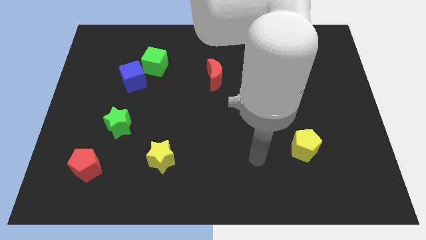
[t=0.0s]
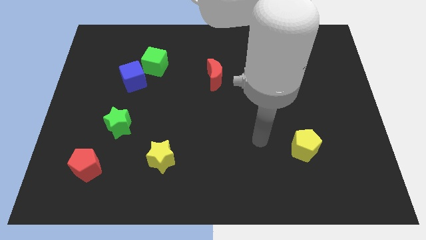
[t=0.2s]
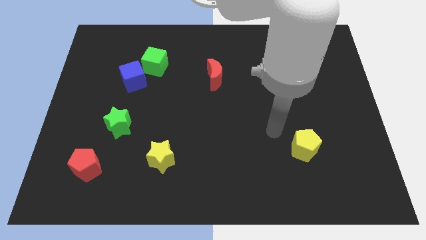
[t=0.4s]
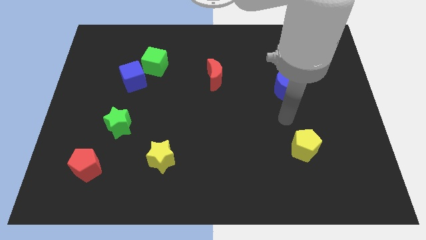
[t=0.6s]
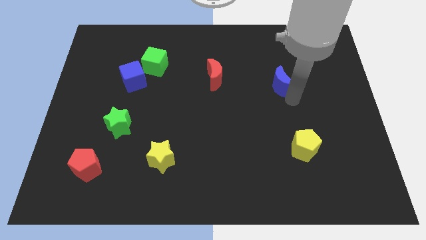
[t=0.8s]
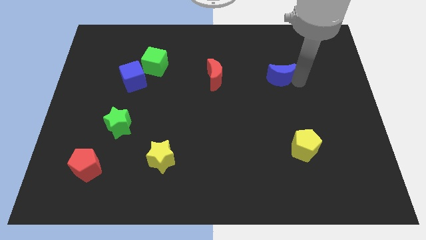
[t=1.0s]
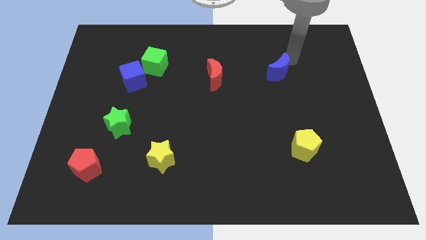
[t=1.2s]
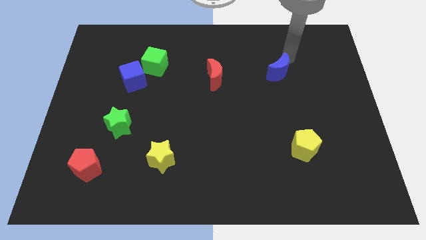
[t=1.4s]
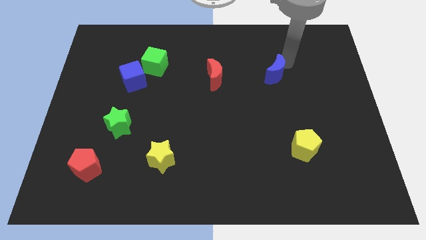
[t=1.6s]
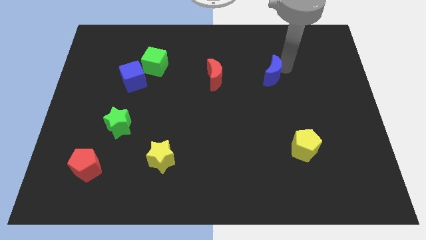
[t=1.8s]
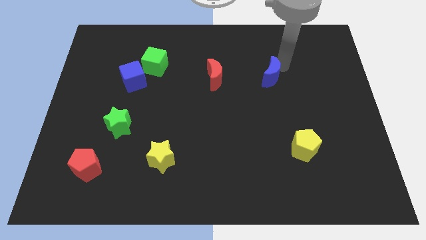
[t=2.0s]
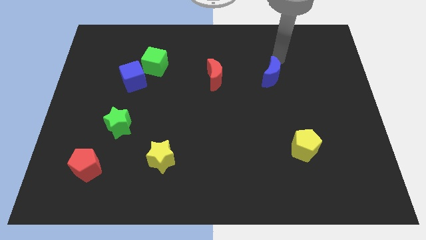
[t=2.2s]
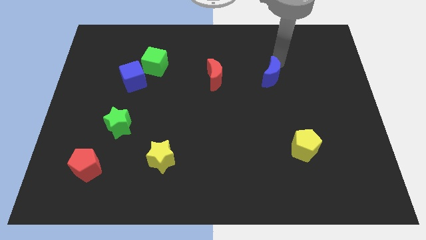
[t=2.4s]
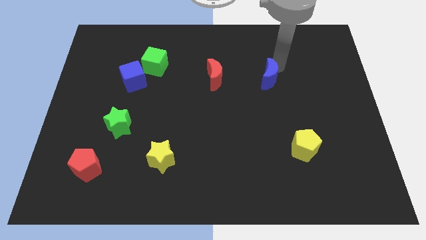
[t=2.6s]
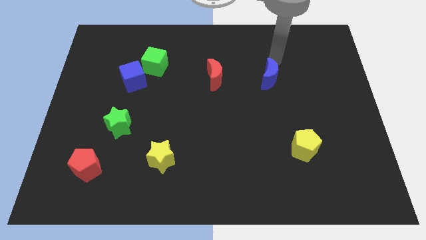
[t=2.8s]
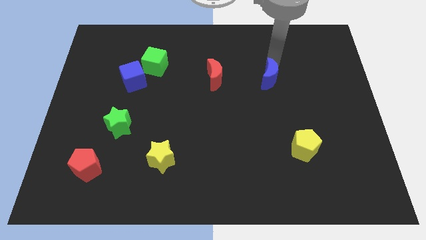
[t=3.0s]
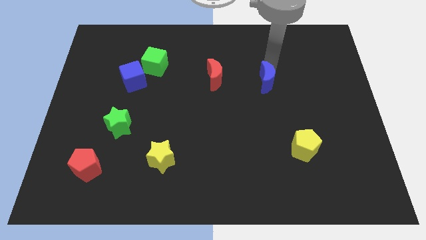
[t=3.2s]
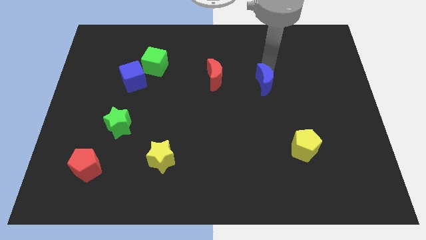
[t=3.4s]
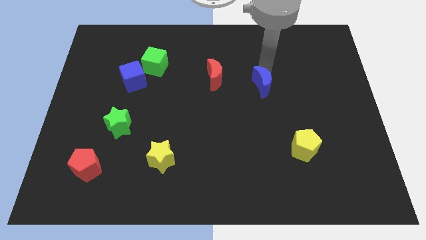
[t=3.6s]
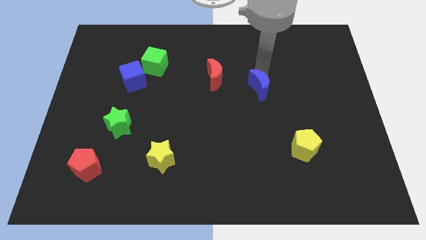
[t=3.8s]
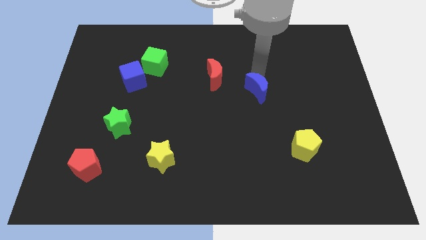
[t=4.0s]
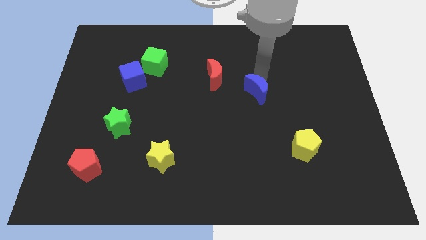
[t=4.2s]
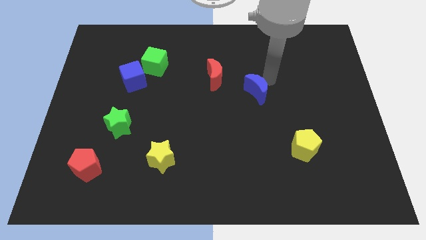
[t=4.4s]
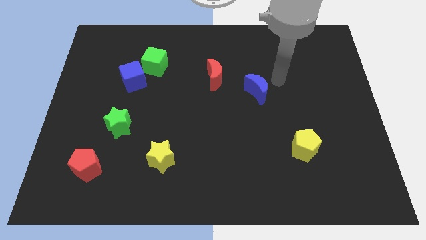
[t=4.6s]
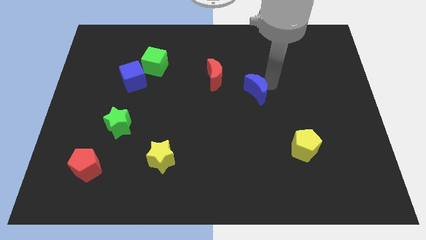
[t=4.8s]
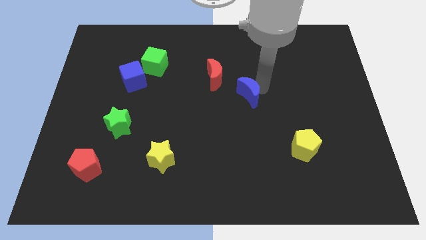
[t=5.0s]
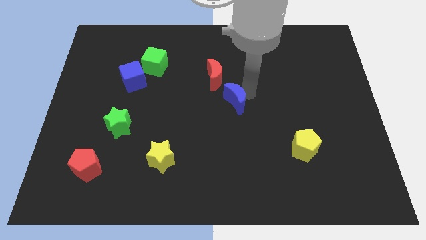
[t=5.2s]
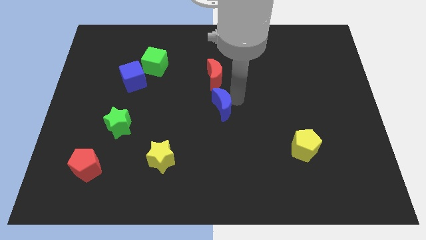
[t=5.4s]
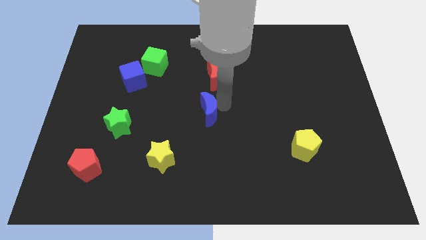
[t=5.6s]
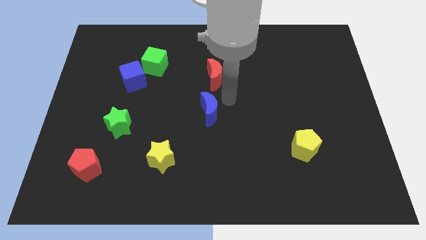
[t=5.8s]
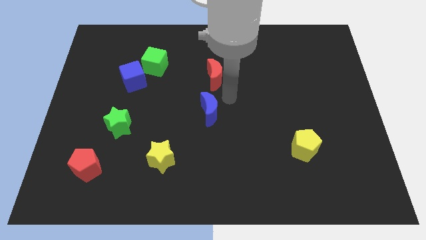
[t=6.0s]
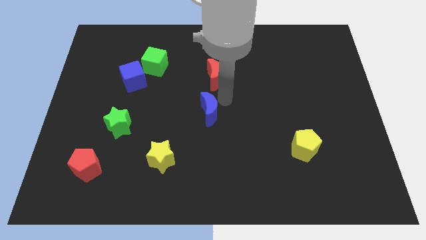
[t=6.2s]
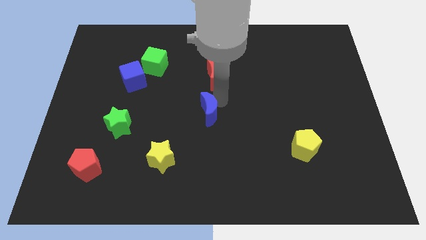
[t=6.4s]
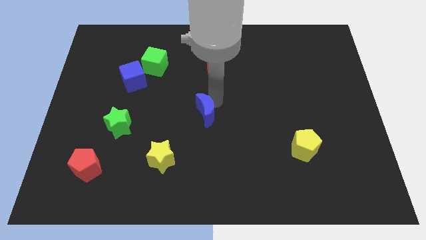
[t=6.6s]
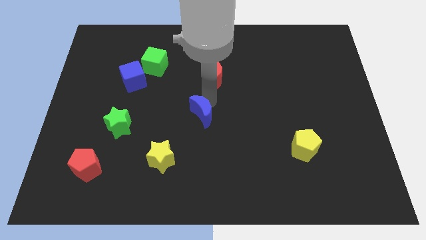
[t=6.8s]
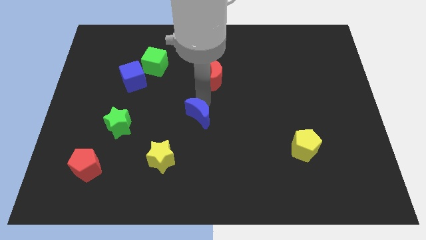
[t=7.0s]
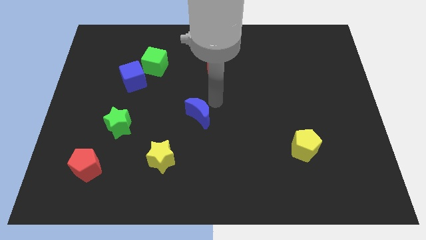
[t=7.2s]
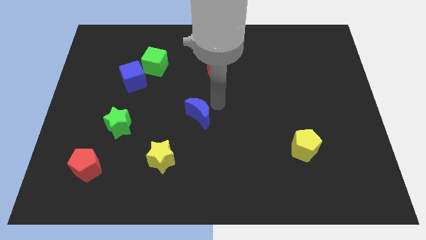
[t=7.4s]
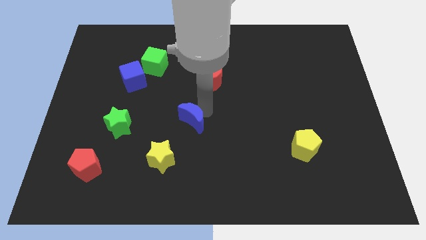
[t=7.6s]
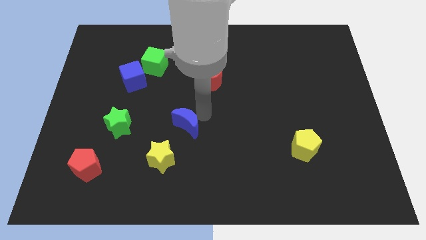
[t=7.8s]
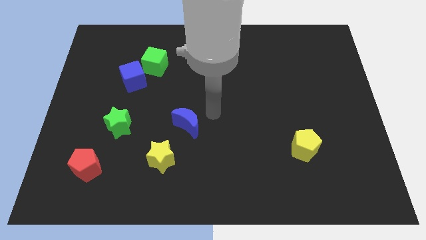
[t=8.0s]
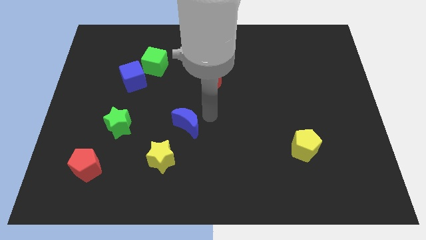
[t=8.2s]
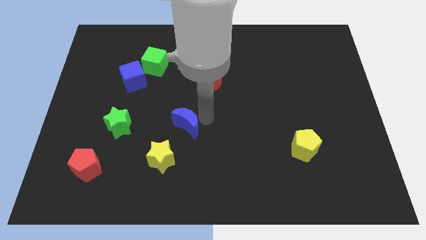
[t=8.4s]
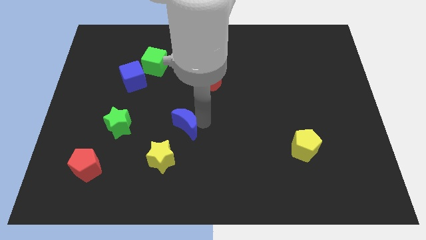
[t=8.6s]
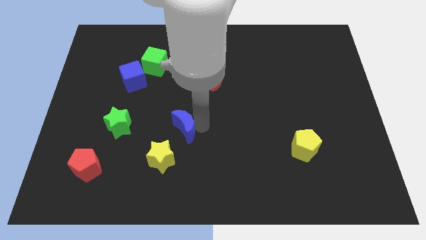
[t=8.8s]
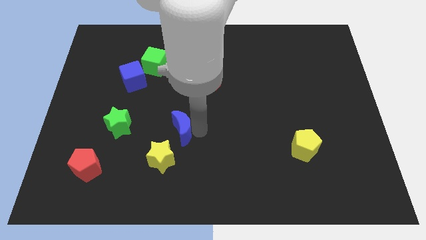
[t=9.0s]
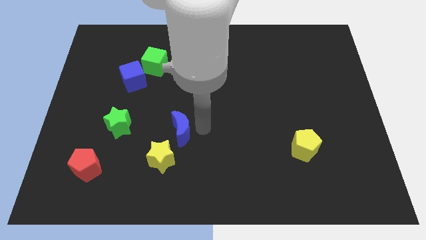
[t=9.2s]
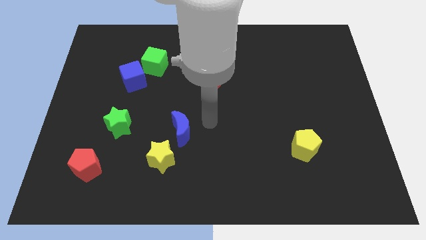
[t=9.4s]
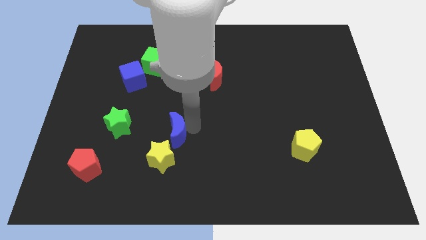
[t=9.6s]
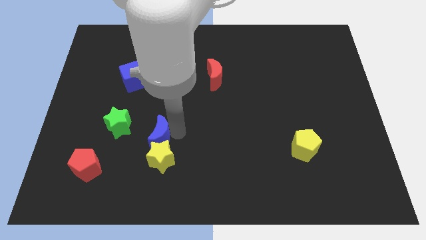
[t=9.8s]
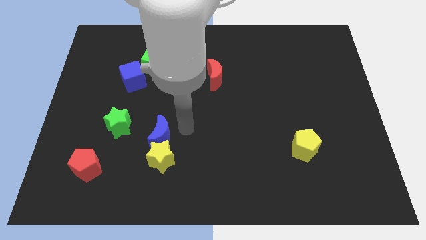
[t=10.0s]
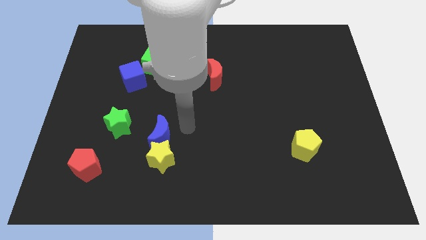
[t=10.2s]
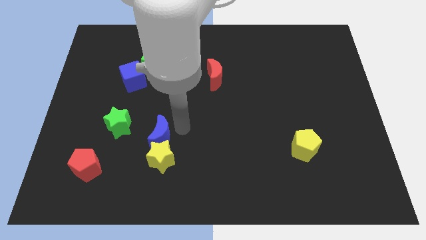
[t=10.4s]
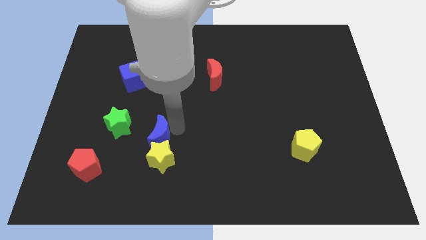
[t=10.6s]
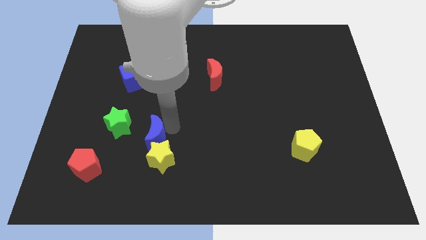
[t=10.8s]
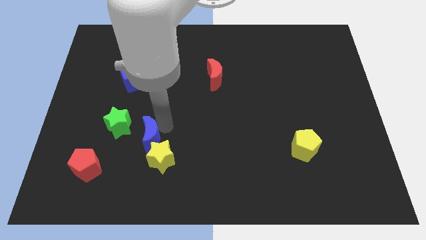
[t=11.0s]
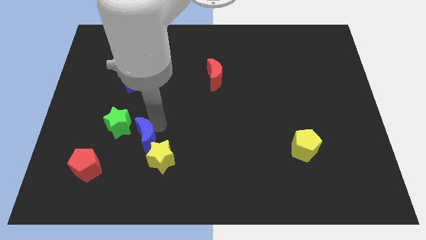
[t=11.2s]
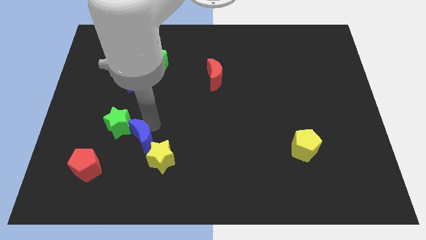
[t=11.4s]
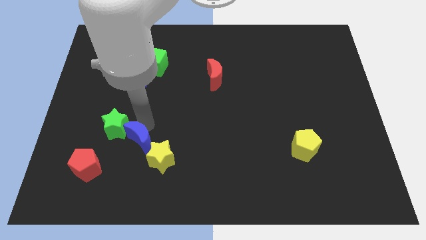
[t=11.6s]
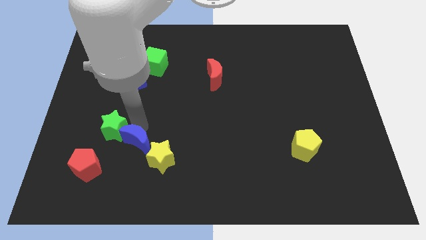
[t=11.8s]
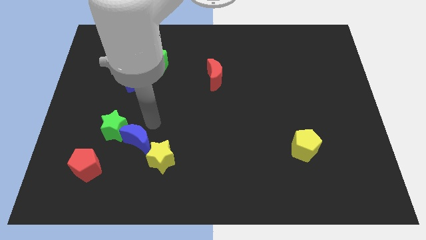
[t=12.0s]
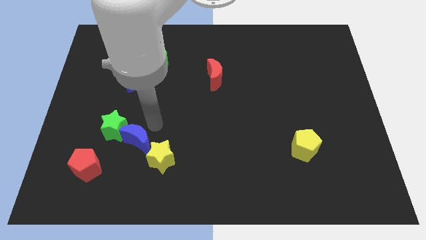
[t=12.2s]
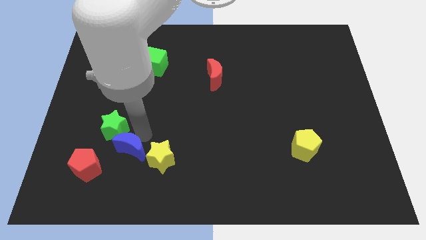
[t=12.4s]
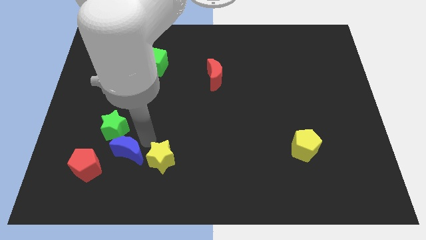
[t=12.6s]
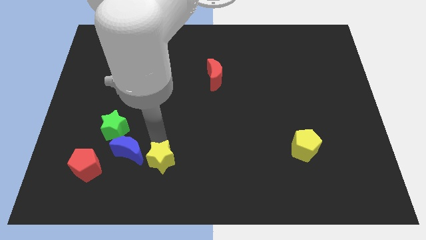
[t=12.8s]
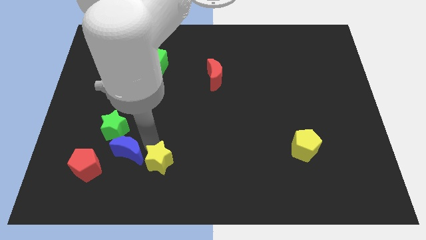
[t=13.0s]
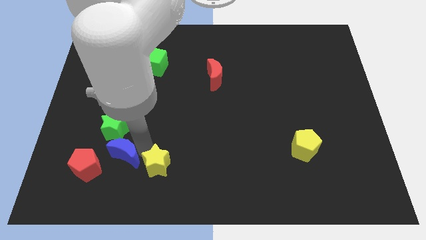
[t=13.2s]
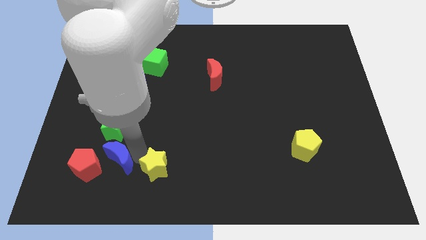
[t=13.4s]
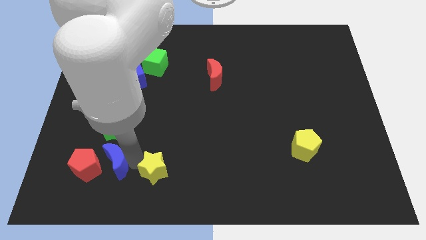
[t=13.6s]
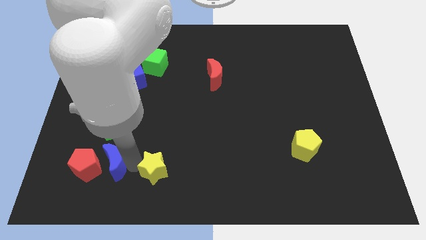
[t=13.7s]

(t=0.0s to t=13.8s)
push the blue moon towards the red pentagon

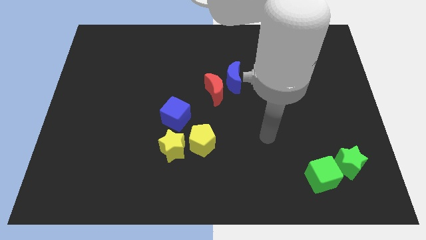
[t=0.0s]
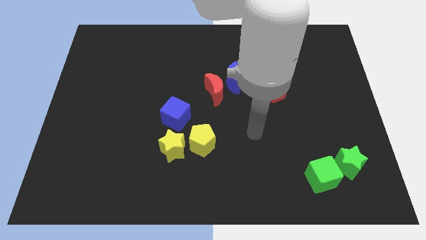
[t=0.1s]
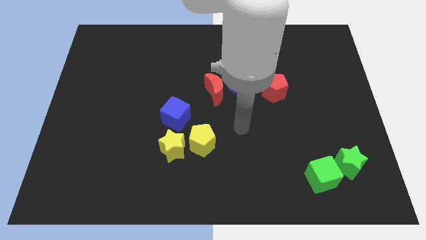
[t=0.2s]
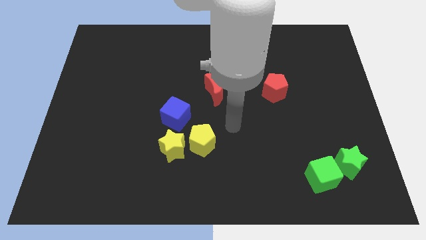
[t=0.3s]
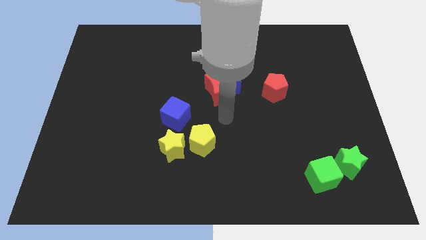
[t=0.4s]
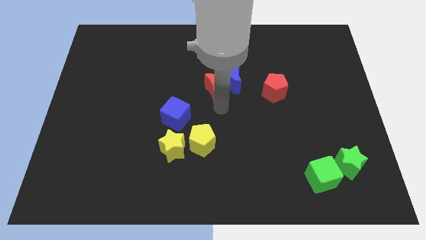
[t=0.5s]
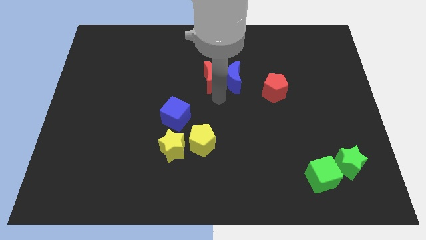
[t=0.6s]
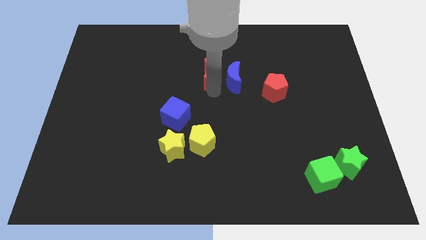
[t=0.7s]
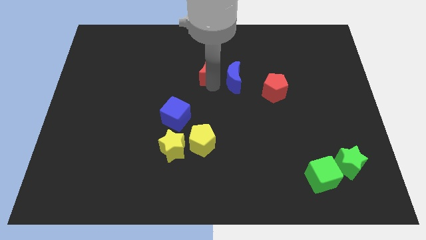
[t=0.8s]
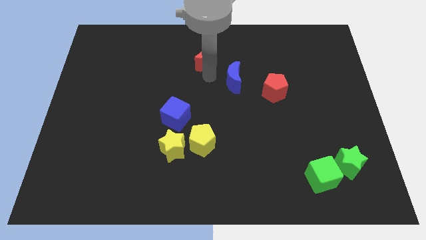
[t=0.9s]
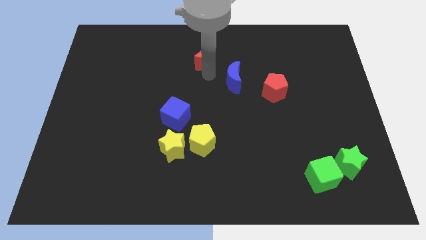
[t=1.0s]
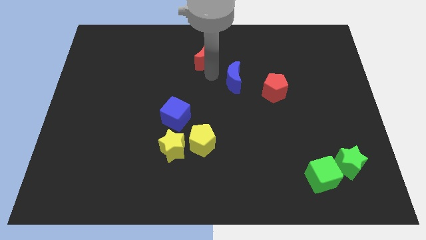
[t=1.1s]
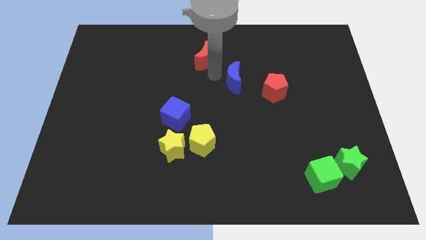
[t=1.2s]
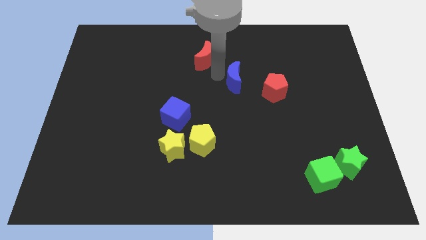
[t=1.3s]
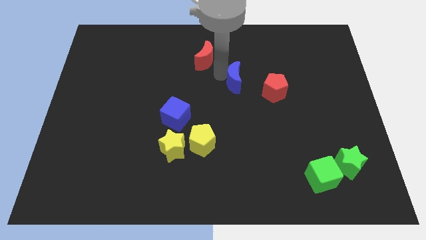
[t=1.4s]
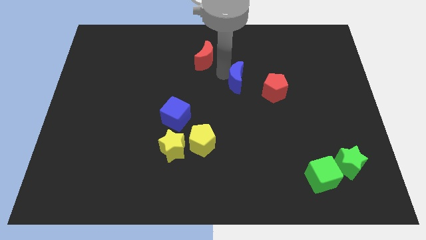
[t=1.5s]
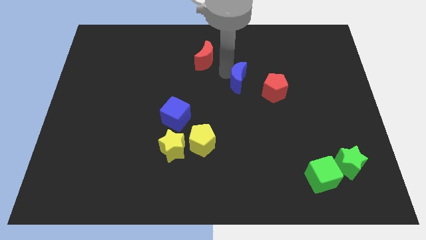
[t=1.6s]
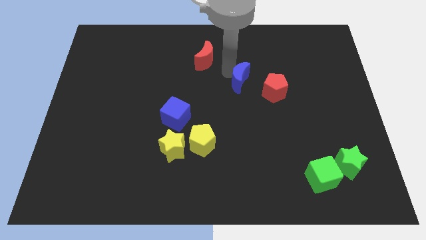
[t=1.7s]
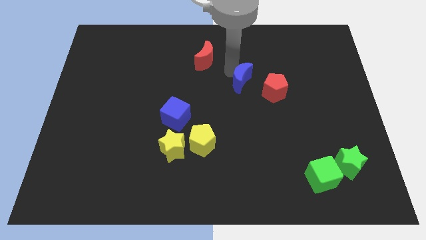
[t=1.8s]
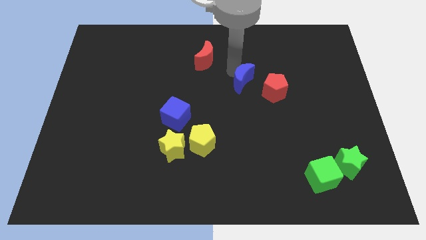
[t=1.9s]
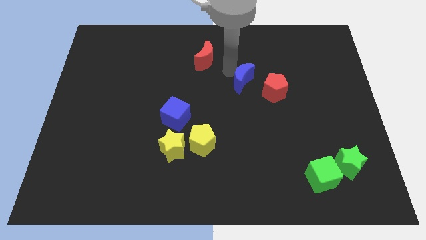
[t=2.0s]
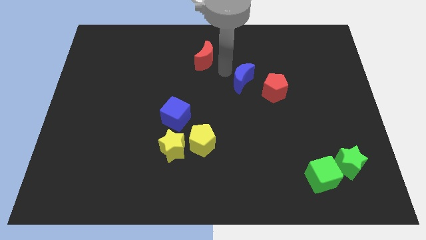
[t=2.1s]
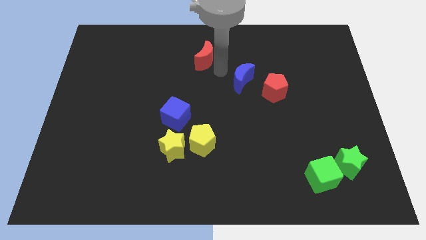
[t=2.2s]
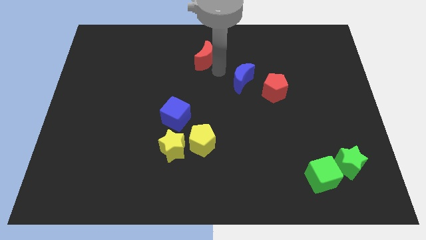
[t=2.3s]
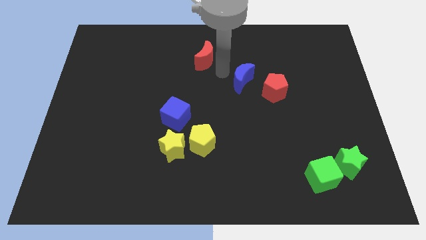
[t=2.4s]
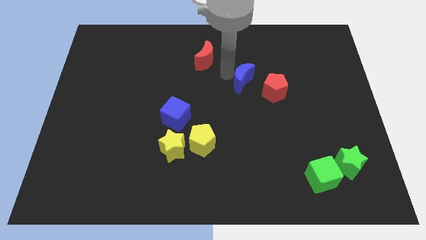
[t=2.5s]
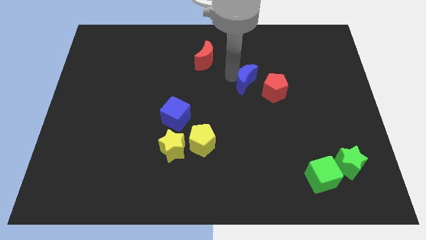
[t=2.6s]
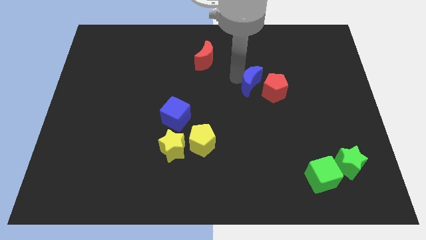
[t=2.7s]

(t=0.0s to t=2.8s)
move the blue moon towards the red pentagon
